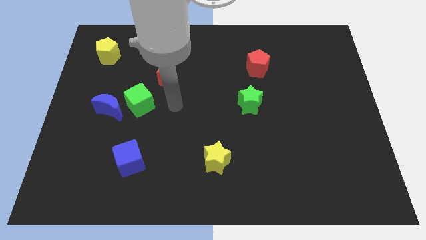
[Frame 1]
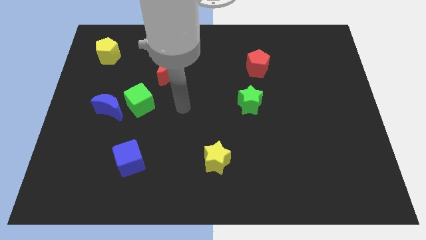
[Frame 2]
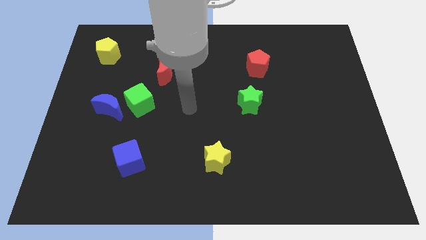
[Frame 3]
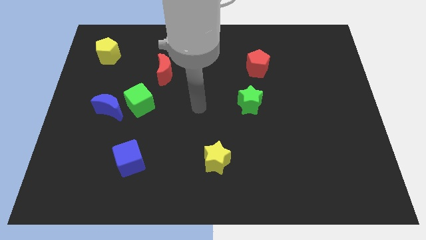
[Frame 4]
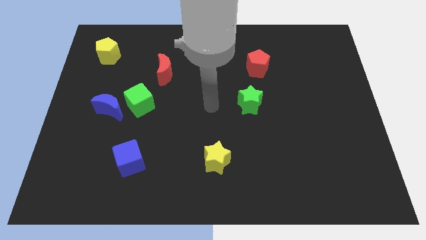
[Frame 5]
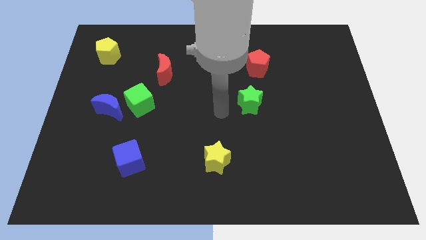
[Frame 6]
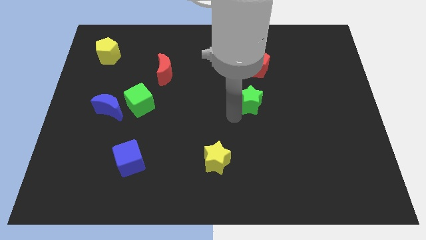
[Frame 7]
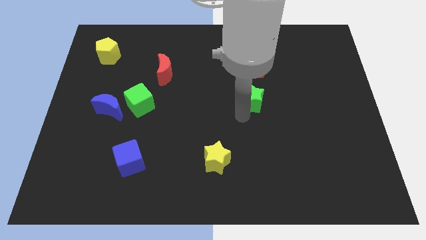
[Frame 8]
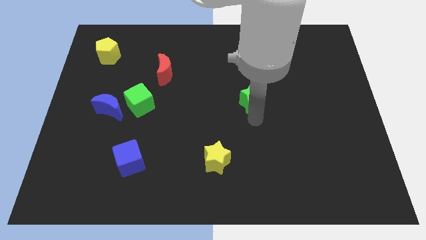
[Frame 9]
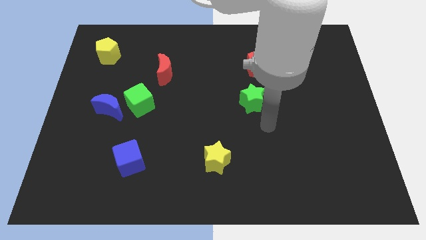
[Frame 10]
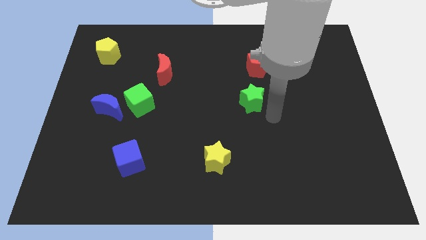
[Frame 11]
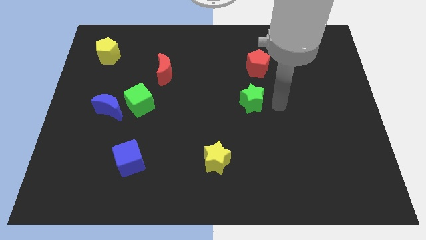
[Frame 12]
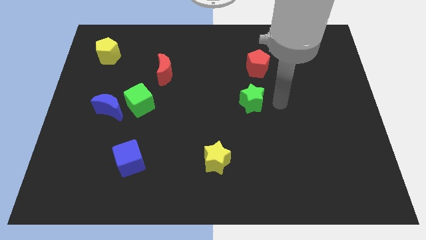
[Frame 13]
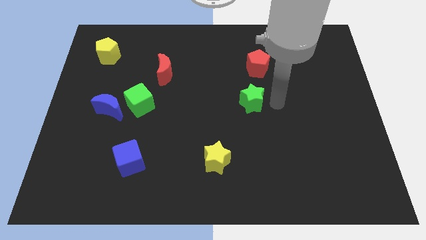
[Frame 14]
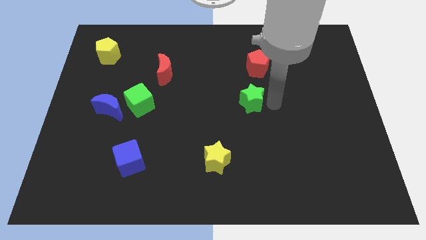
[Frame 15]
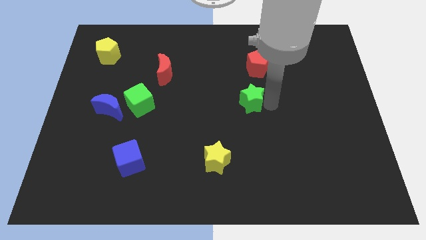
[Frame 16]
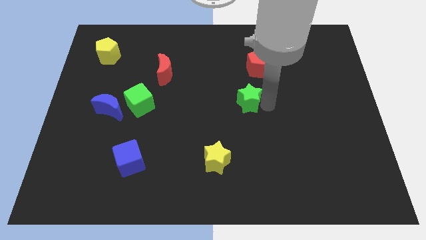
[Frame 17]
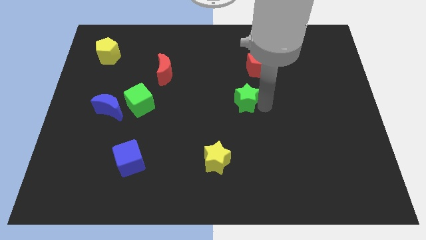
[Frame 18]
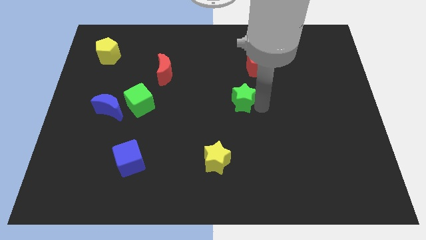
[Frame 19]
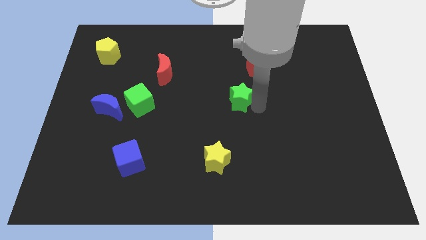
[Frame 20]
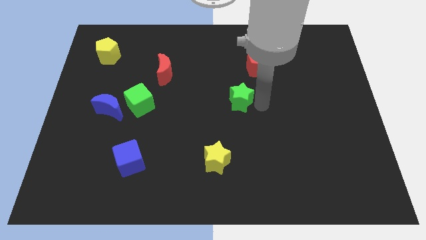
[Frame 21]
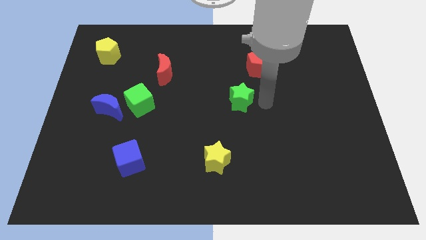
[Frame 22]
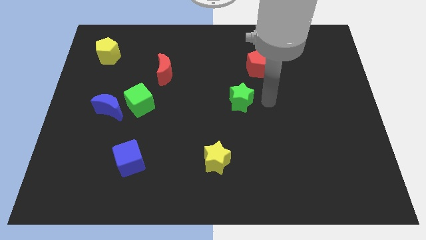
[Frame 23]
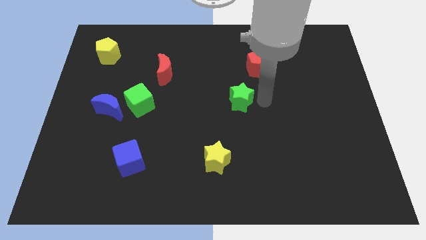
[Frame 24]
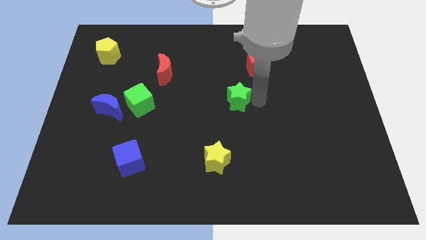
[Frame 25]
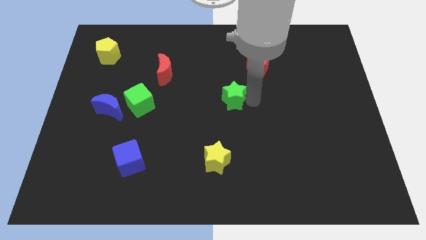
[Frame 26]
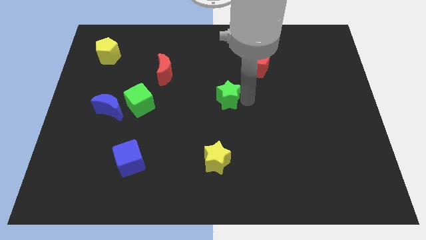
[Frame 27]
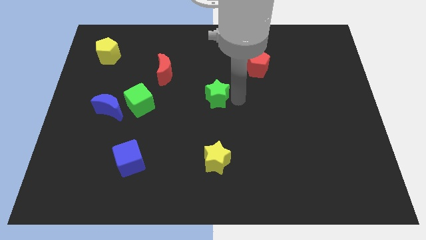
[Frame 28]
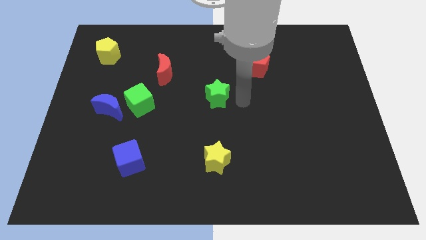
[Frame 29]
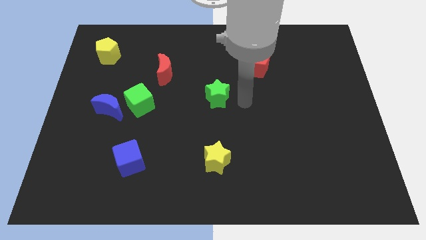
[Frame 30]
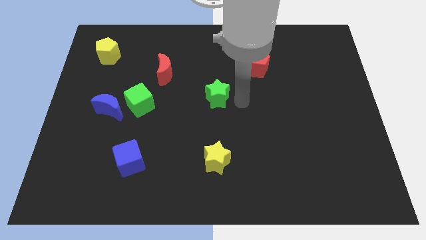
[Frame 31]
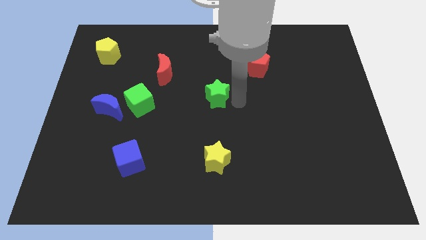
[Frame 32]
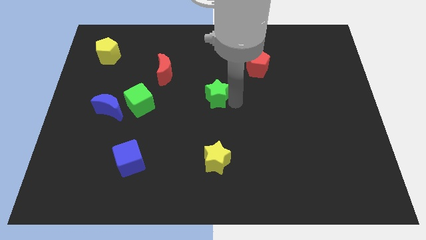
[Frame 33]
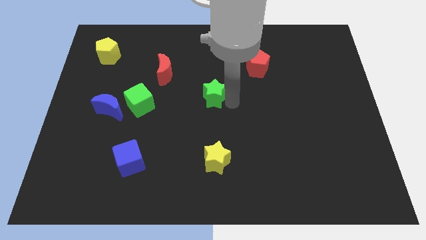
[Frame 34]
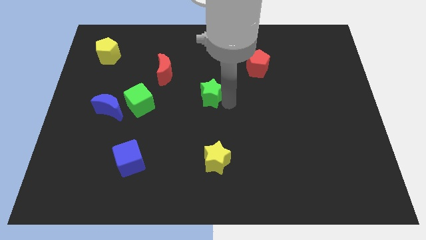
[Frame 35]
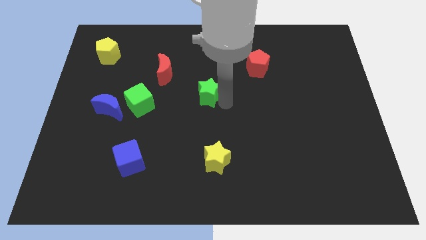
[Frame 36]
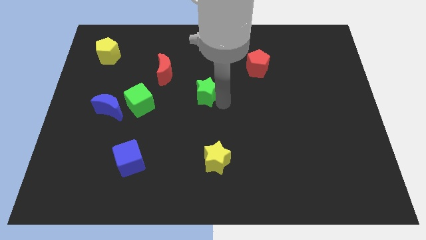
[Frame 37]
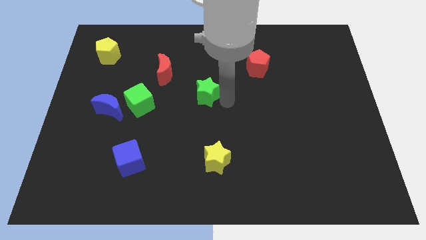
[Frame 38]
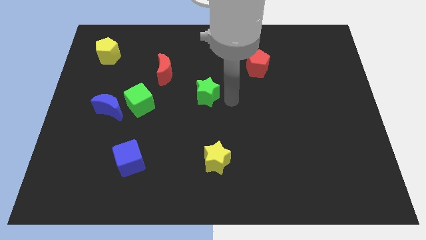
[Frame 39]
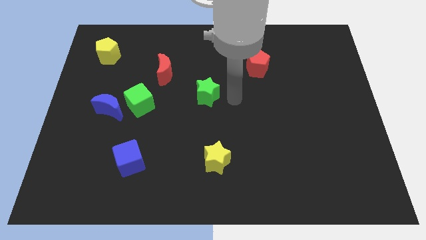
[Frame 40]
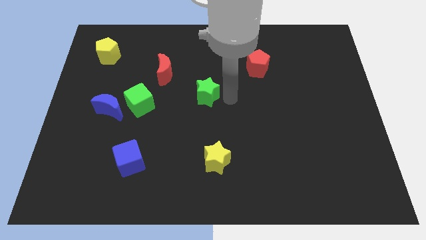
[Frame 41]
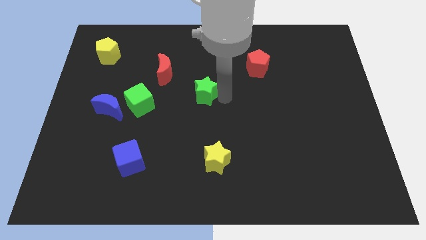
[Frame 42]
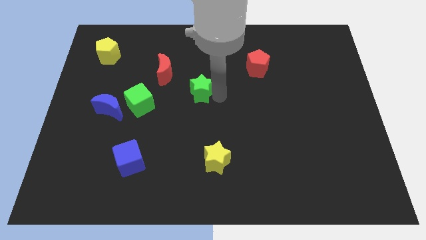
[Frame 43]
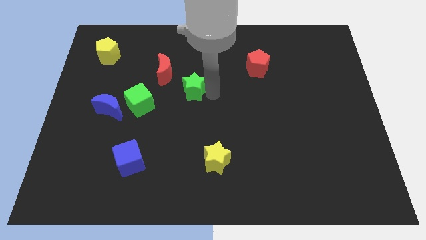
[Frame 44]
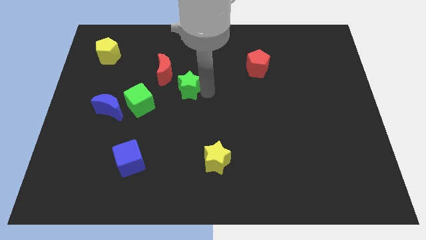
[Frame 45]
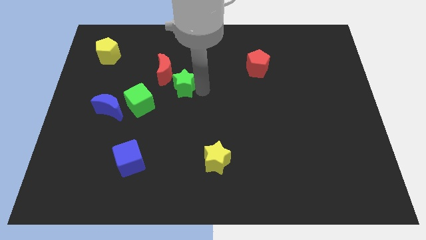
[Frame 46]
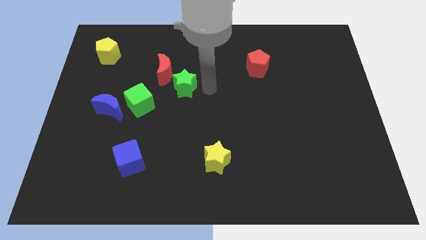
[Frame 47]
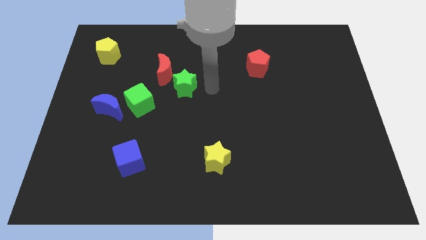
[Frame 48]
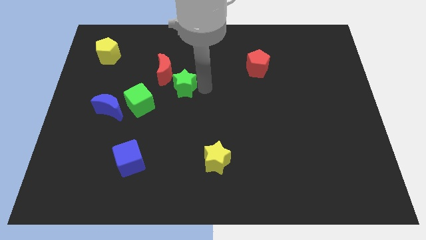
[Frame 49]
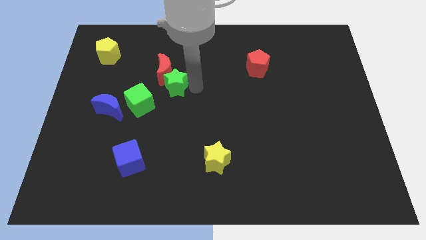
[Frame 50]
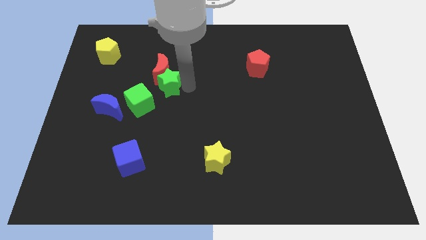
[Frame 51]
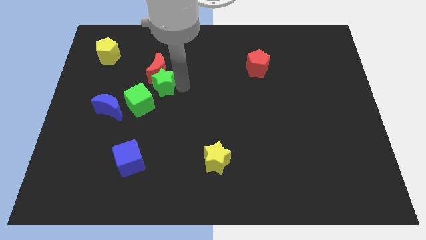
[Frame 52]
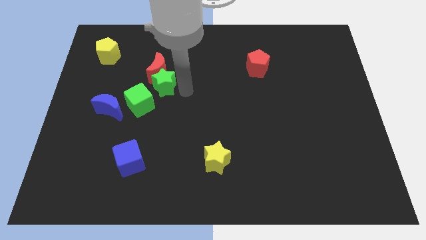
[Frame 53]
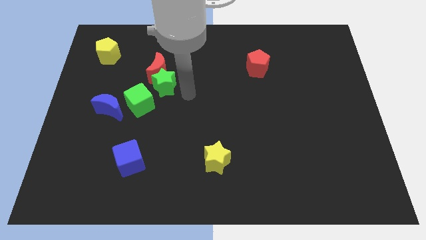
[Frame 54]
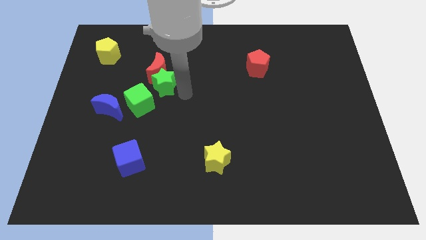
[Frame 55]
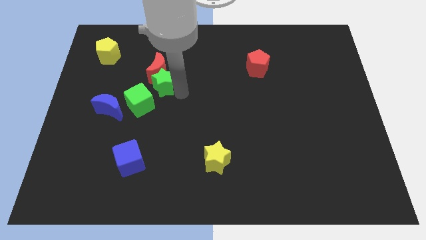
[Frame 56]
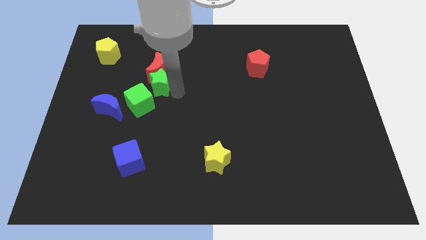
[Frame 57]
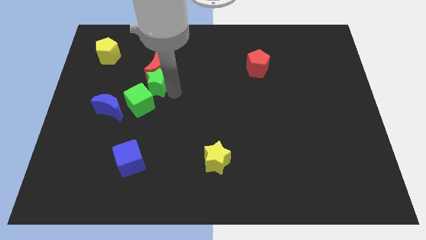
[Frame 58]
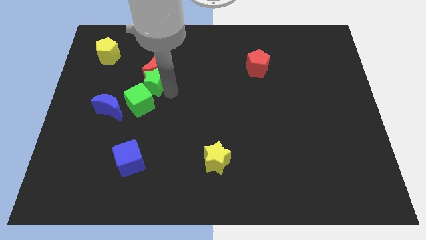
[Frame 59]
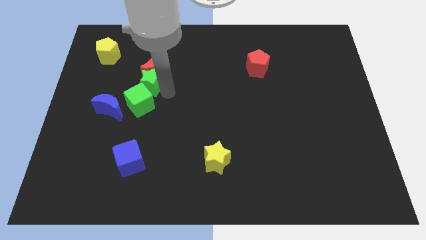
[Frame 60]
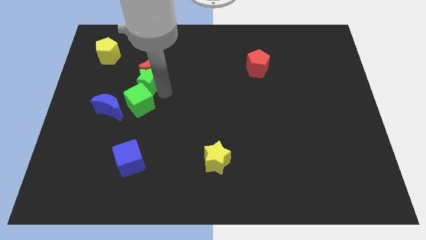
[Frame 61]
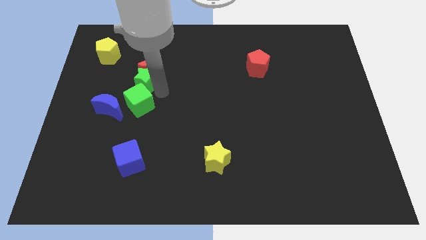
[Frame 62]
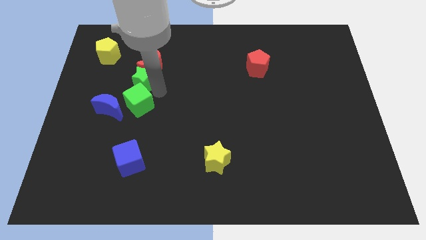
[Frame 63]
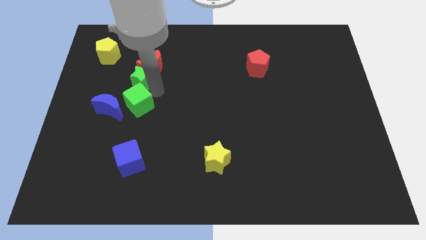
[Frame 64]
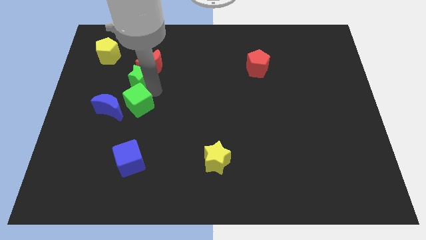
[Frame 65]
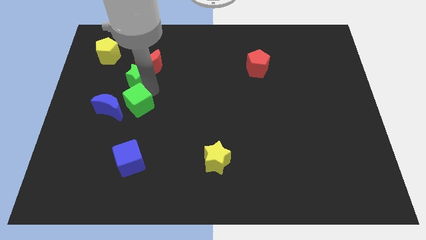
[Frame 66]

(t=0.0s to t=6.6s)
move the green star diagonally down and to the right of the yellow pentagon

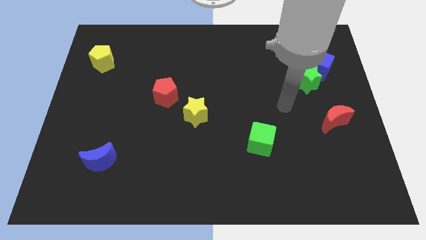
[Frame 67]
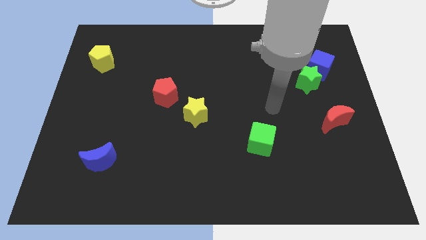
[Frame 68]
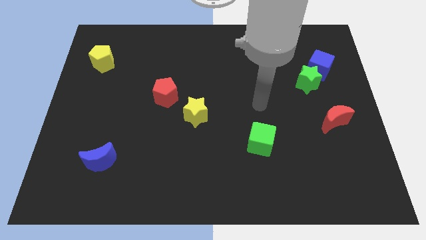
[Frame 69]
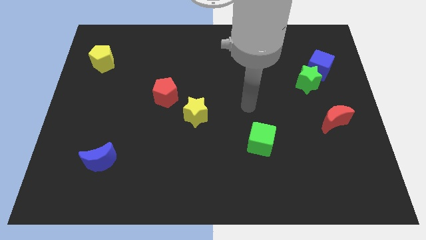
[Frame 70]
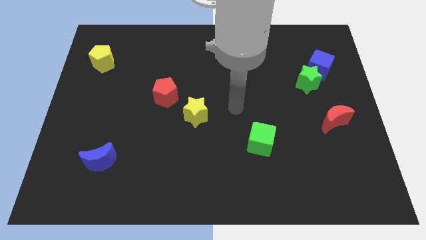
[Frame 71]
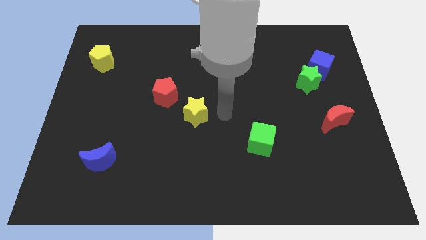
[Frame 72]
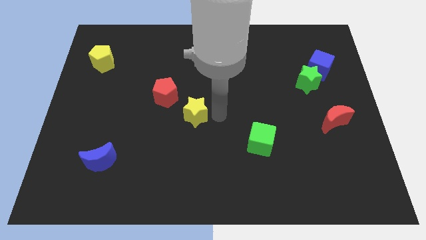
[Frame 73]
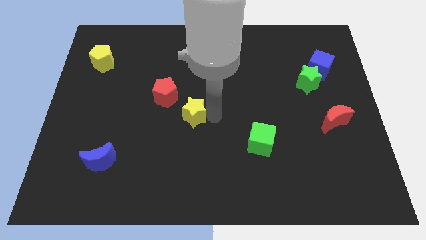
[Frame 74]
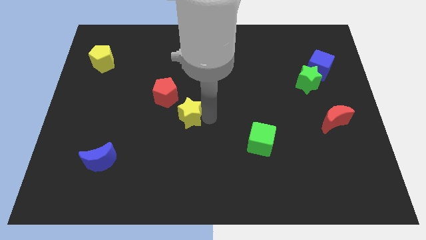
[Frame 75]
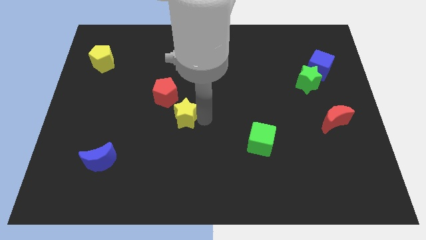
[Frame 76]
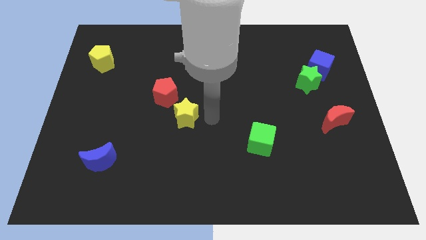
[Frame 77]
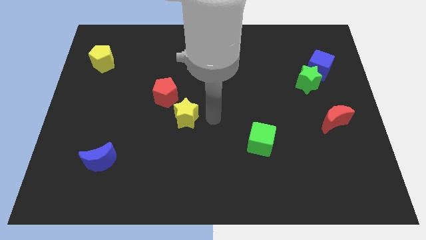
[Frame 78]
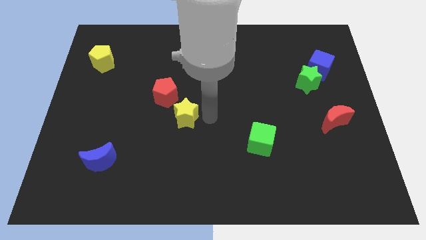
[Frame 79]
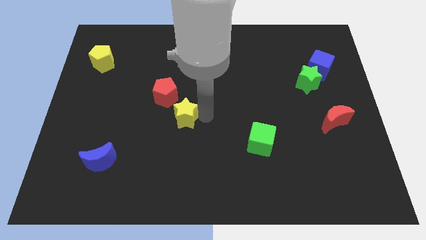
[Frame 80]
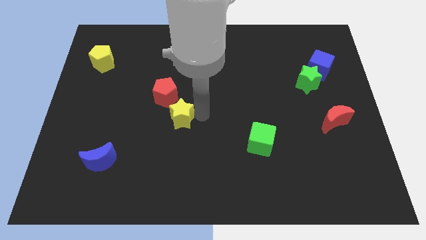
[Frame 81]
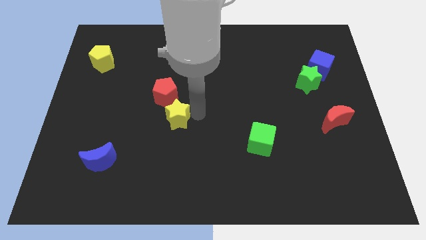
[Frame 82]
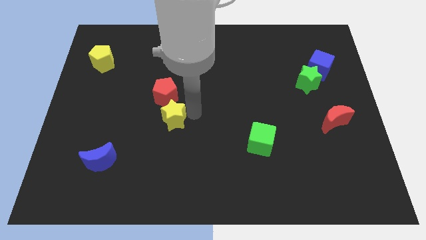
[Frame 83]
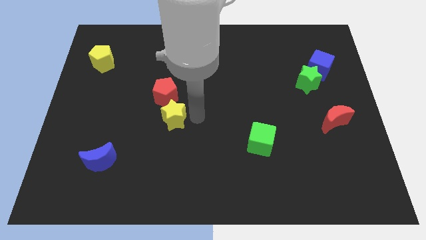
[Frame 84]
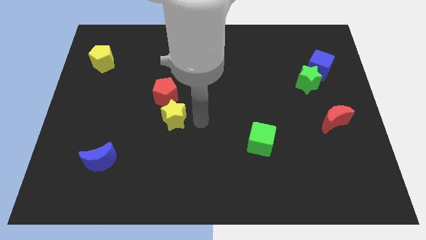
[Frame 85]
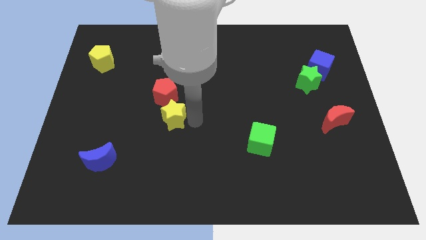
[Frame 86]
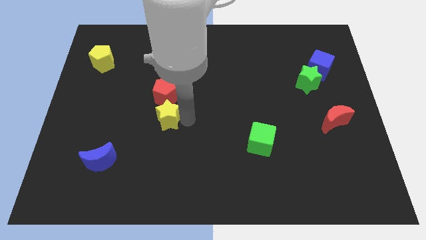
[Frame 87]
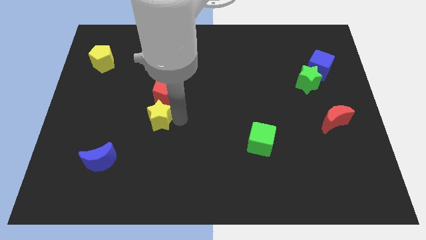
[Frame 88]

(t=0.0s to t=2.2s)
slide the yellow star to the bottom left of the red pentagon
